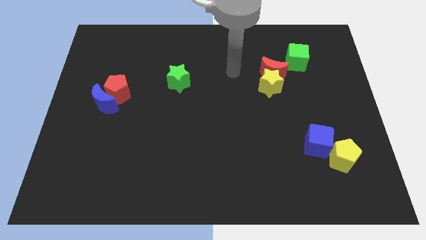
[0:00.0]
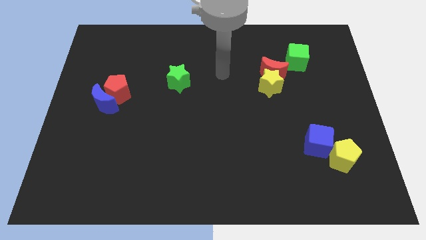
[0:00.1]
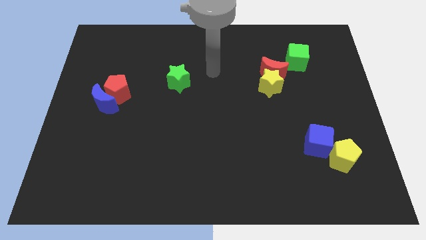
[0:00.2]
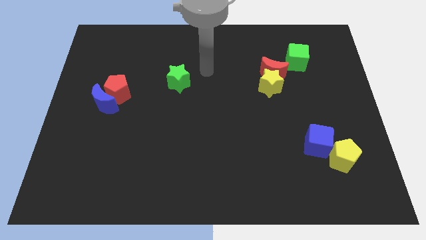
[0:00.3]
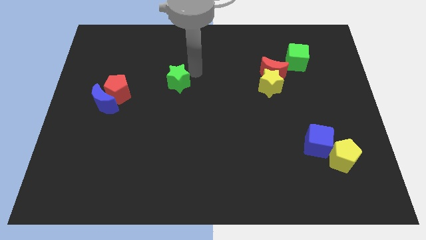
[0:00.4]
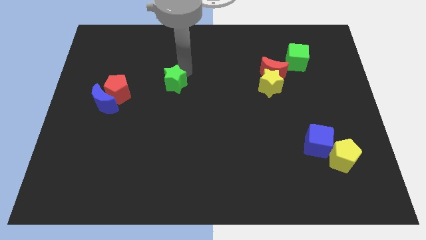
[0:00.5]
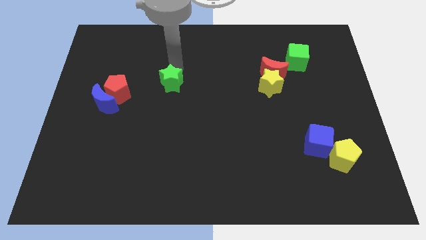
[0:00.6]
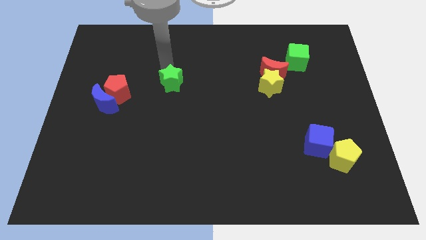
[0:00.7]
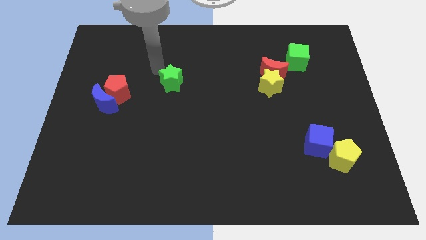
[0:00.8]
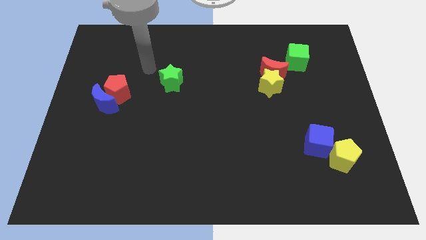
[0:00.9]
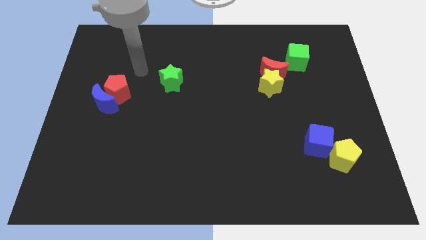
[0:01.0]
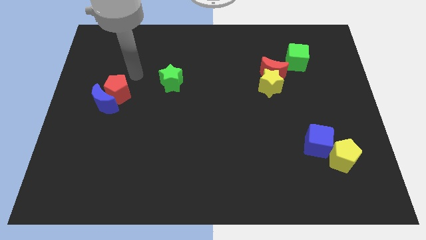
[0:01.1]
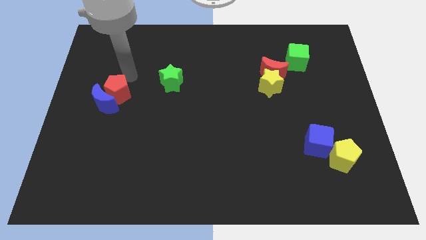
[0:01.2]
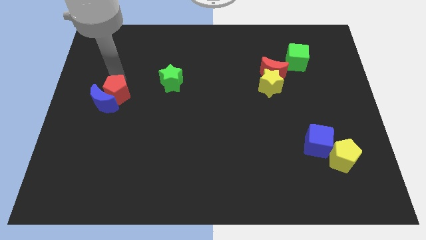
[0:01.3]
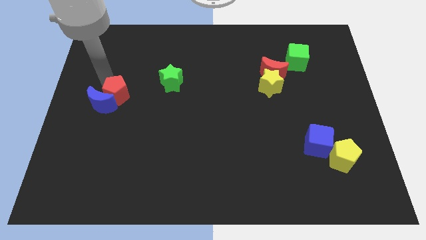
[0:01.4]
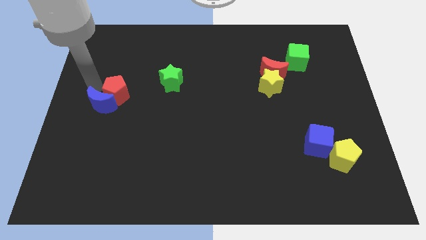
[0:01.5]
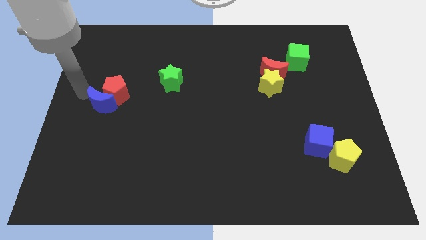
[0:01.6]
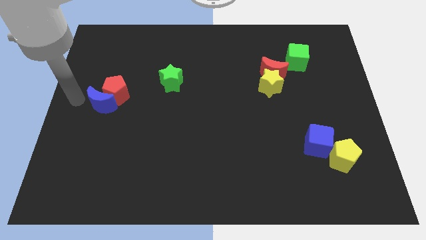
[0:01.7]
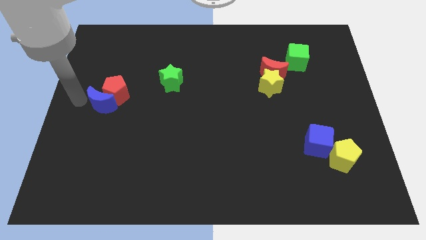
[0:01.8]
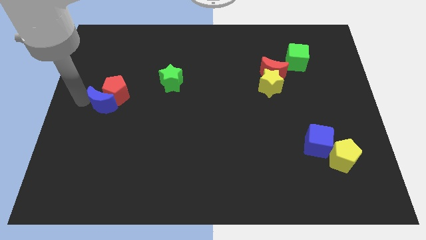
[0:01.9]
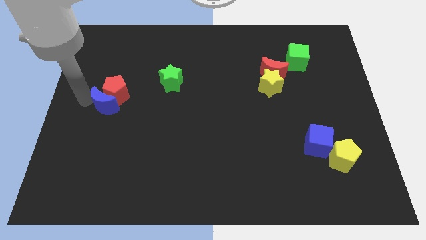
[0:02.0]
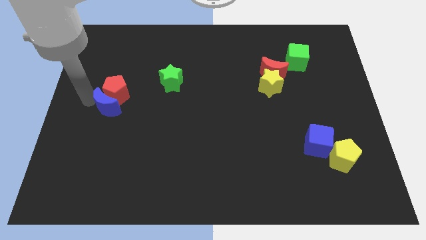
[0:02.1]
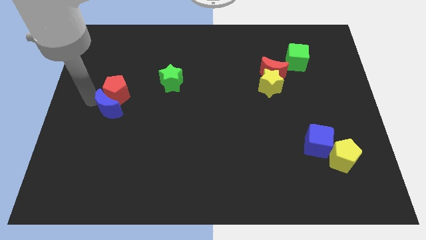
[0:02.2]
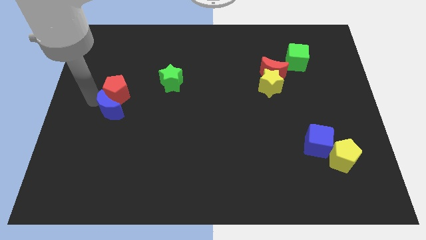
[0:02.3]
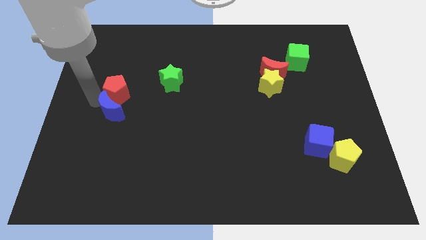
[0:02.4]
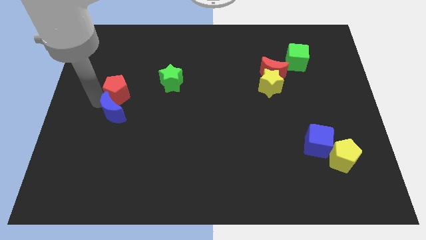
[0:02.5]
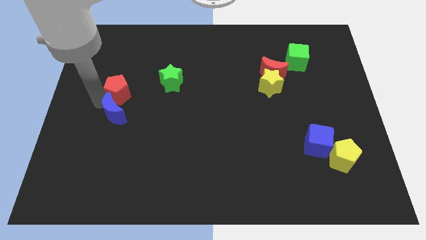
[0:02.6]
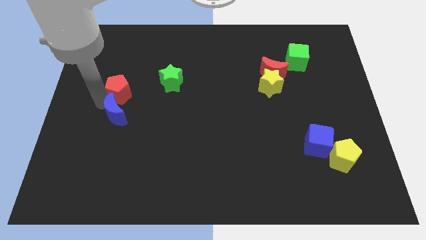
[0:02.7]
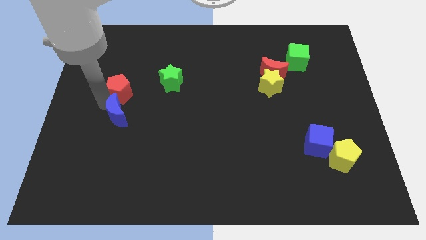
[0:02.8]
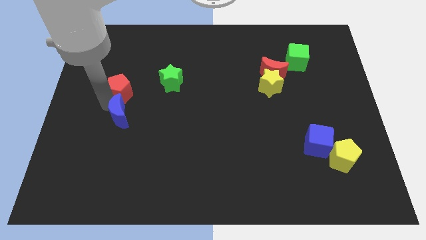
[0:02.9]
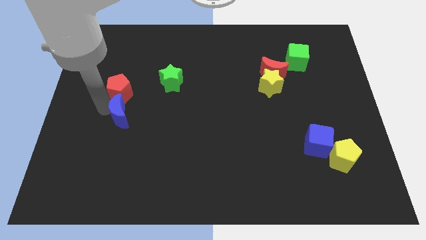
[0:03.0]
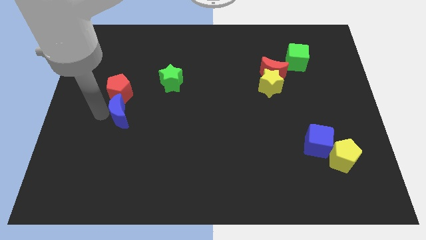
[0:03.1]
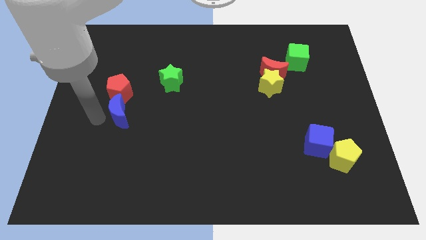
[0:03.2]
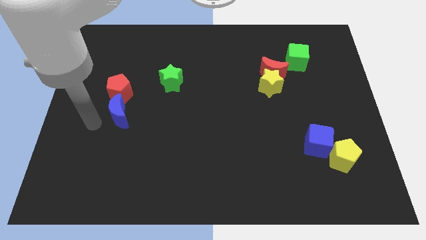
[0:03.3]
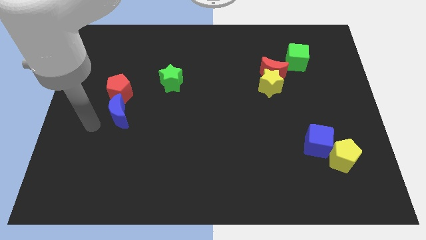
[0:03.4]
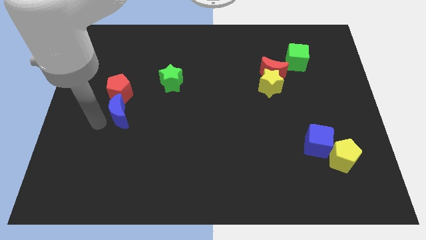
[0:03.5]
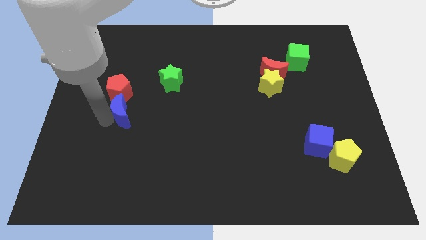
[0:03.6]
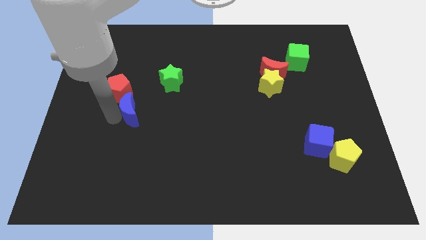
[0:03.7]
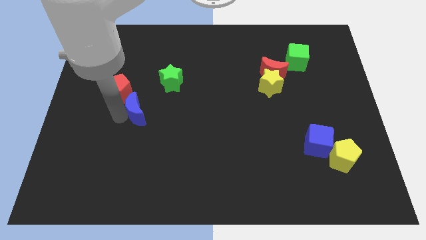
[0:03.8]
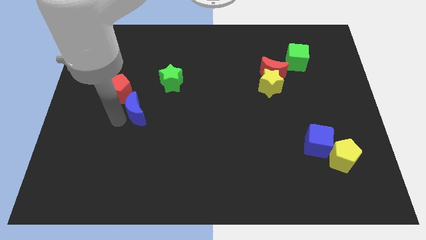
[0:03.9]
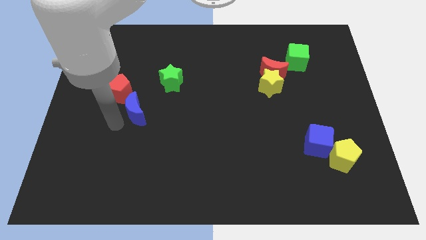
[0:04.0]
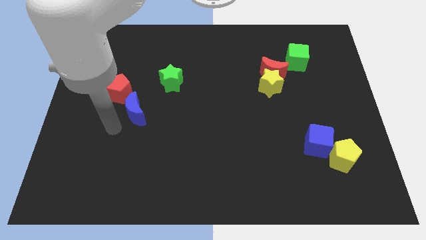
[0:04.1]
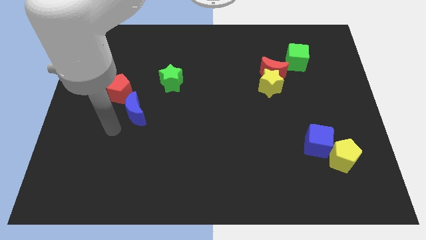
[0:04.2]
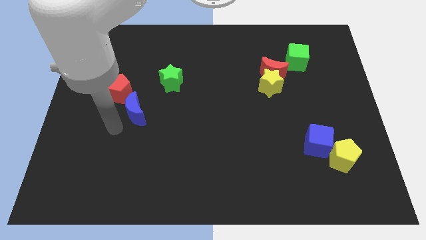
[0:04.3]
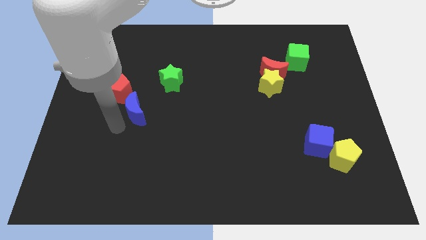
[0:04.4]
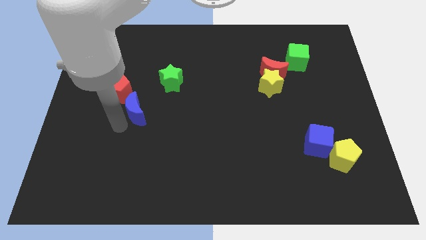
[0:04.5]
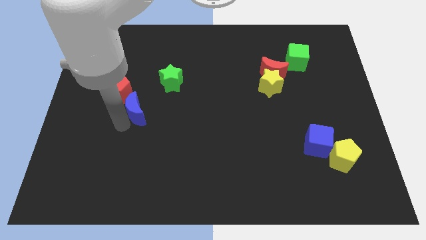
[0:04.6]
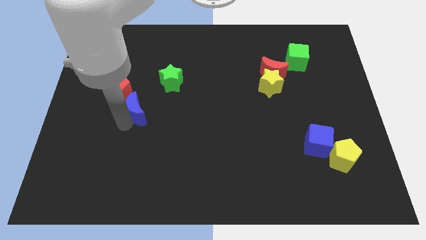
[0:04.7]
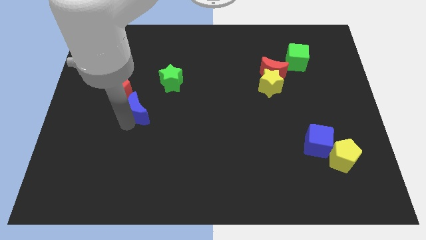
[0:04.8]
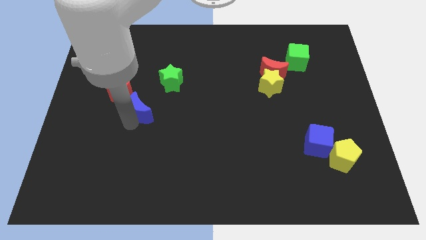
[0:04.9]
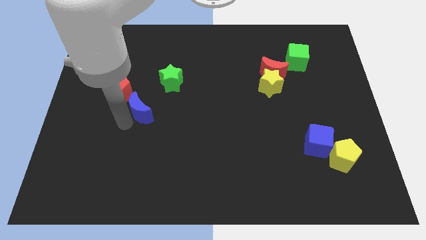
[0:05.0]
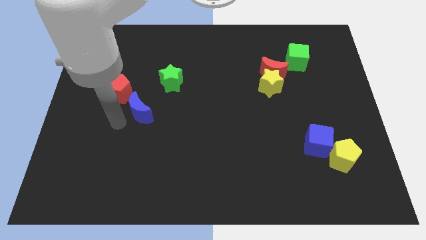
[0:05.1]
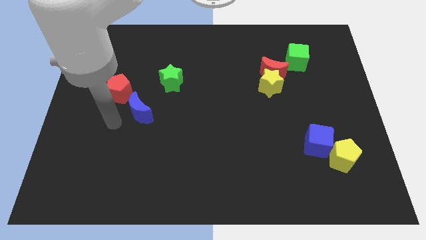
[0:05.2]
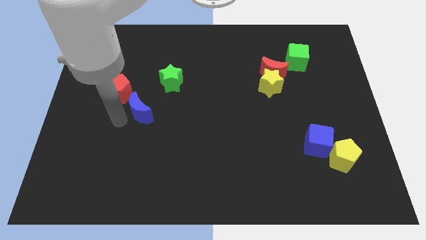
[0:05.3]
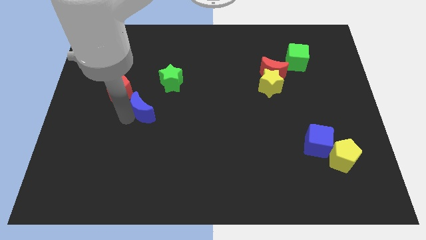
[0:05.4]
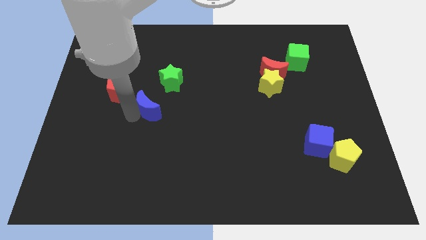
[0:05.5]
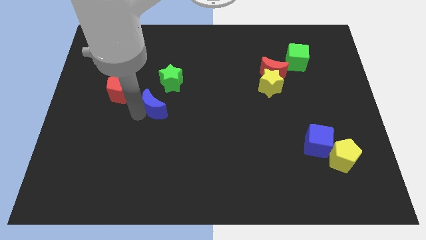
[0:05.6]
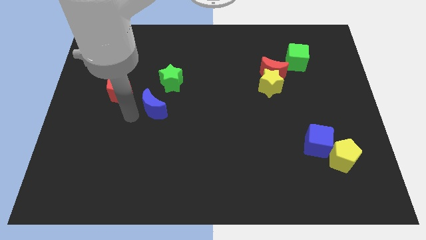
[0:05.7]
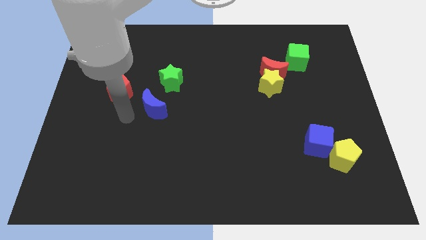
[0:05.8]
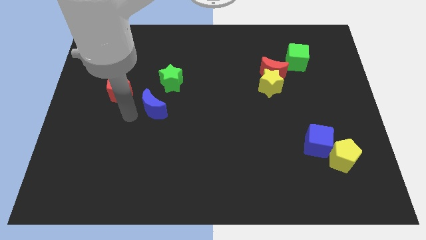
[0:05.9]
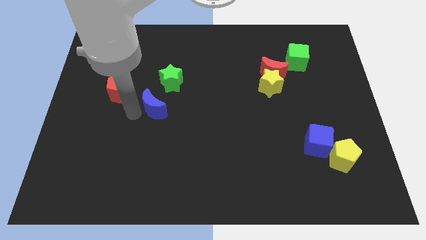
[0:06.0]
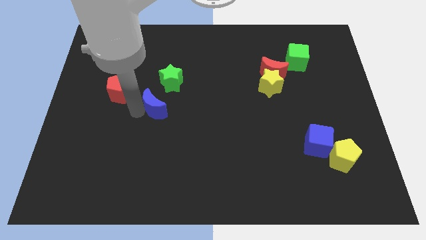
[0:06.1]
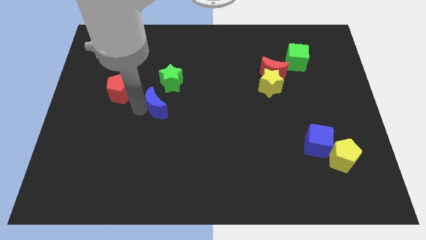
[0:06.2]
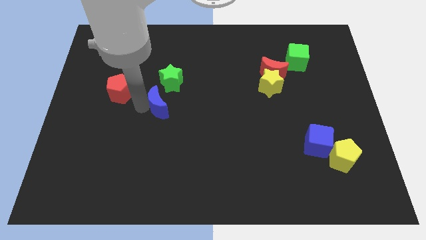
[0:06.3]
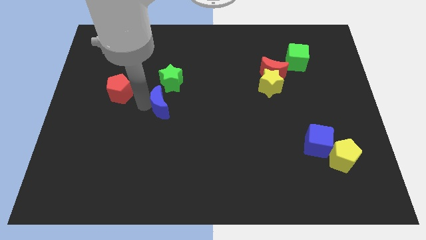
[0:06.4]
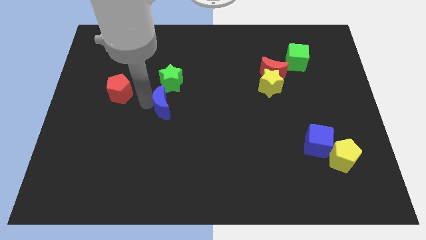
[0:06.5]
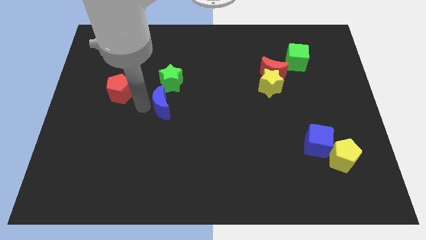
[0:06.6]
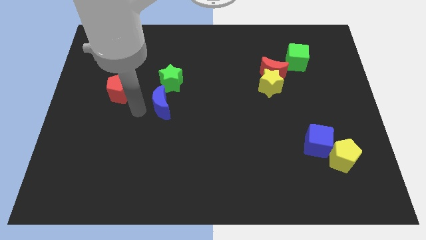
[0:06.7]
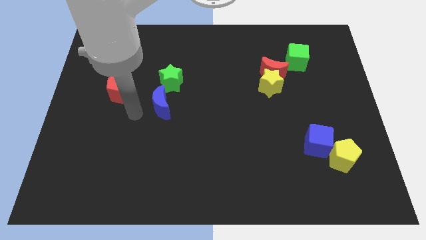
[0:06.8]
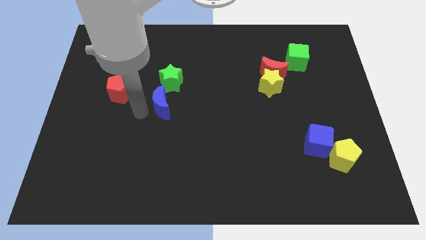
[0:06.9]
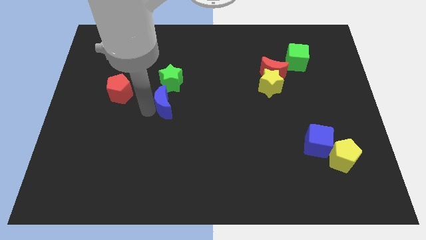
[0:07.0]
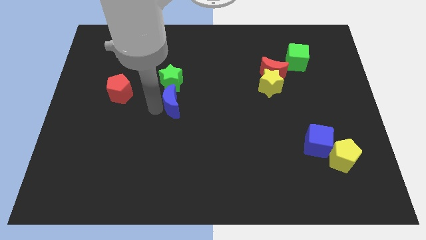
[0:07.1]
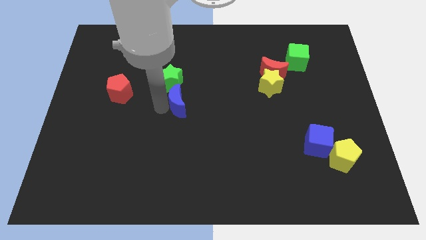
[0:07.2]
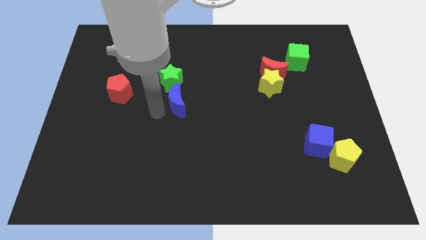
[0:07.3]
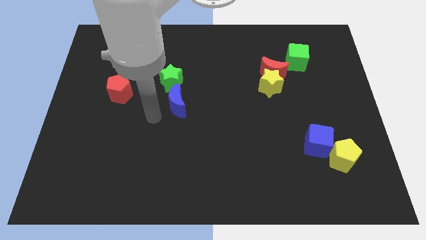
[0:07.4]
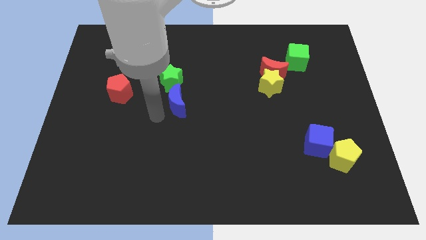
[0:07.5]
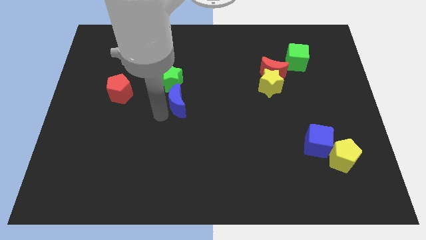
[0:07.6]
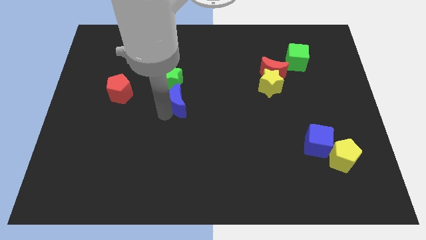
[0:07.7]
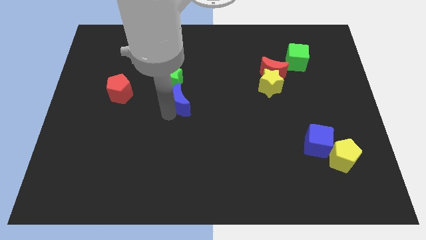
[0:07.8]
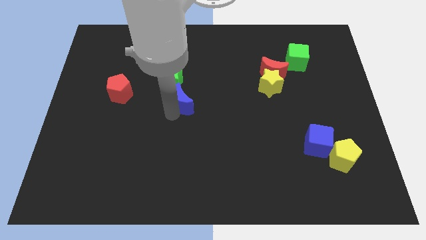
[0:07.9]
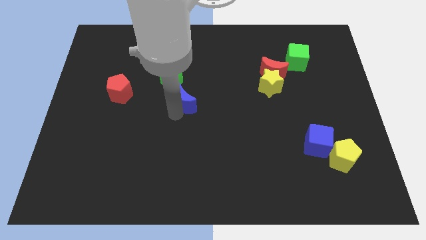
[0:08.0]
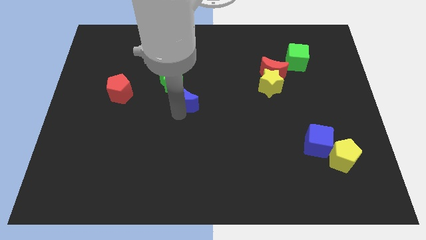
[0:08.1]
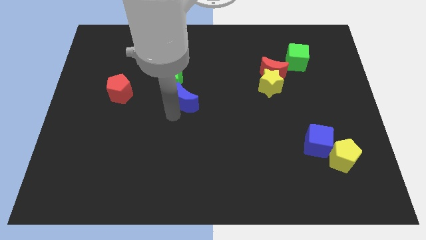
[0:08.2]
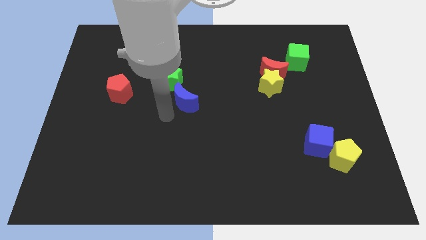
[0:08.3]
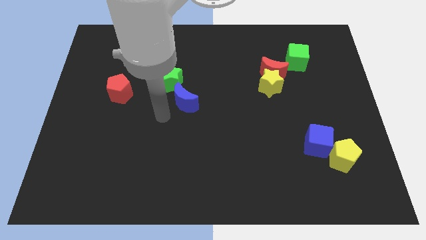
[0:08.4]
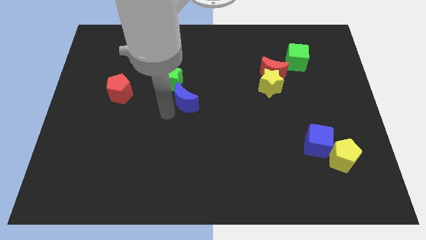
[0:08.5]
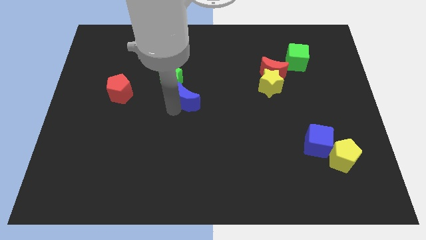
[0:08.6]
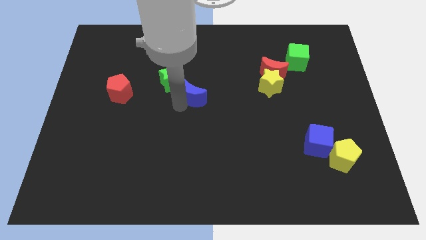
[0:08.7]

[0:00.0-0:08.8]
move the blue moon right of the green star
